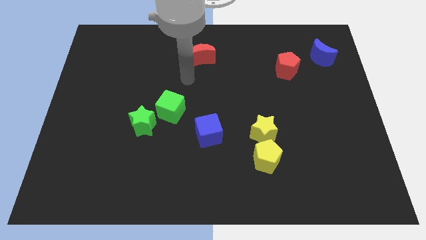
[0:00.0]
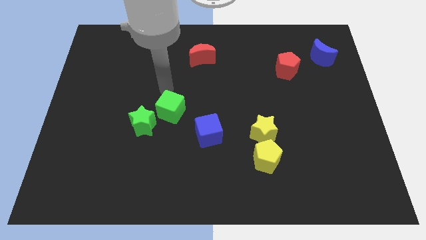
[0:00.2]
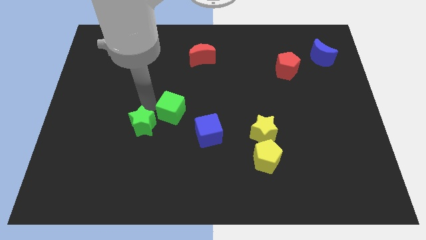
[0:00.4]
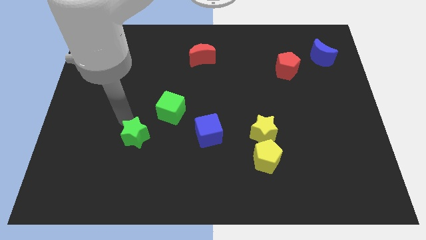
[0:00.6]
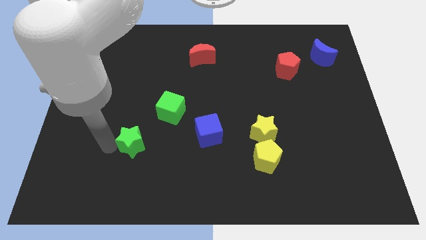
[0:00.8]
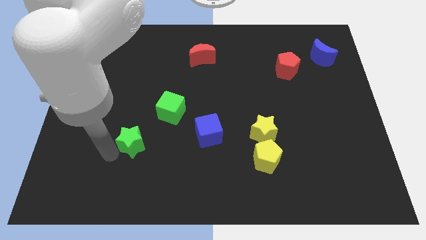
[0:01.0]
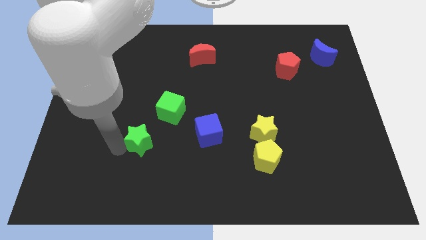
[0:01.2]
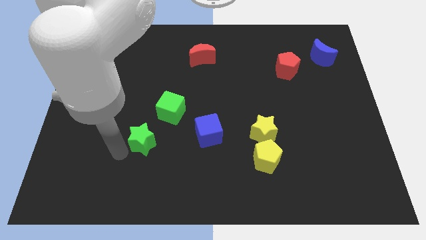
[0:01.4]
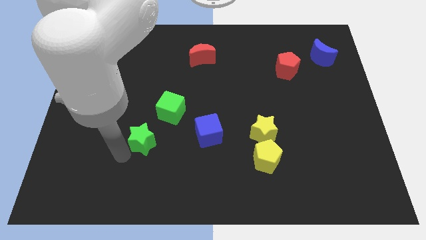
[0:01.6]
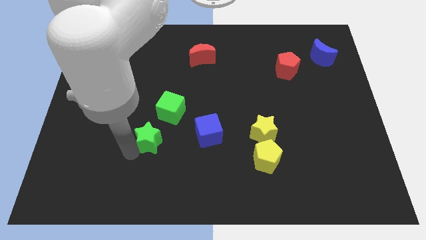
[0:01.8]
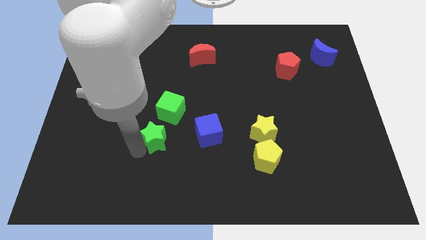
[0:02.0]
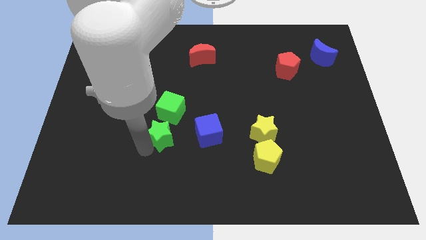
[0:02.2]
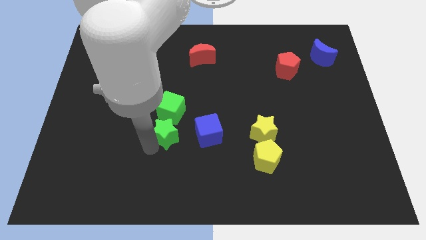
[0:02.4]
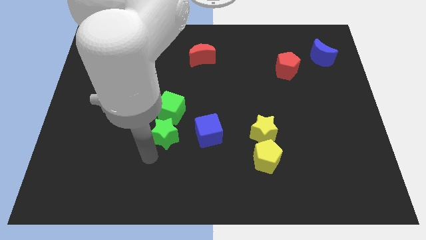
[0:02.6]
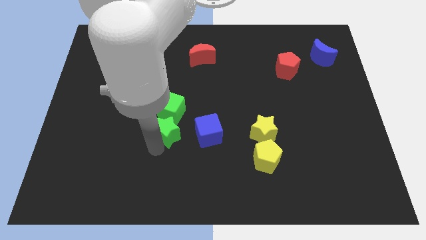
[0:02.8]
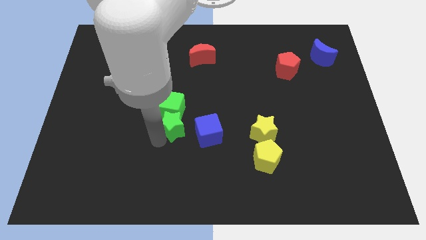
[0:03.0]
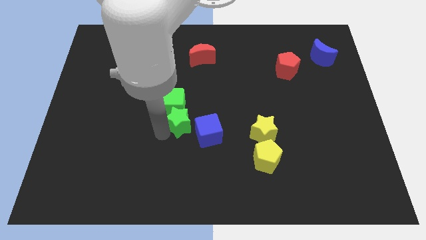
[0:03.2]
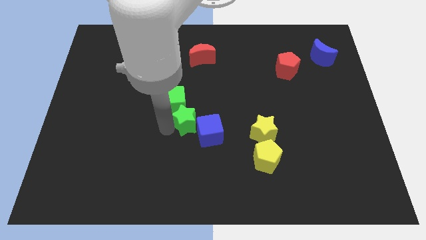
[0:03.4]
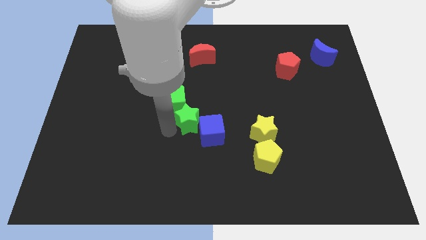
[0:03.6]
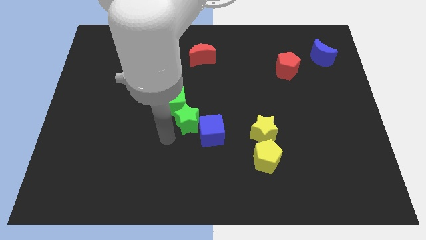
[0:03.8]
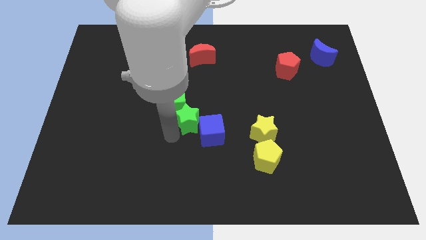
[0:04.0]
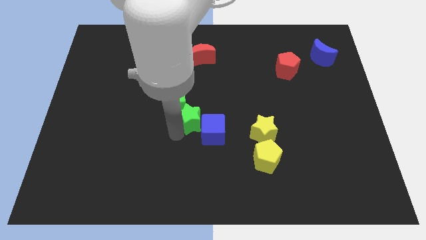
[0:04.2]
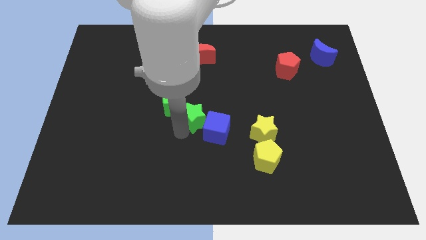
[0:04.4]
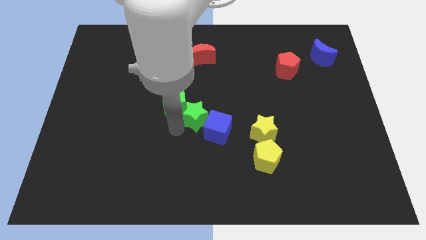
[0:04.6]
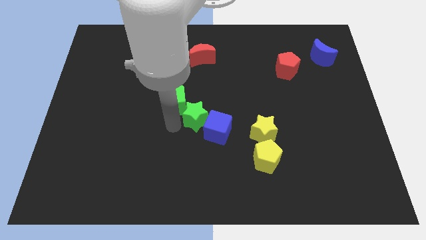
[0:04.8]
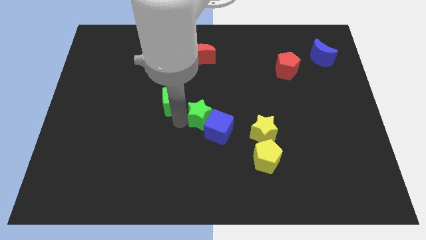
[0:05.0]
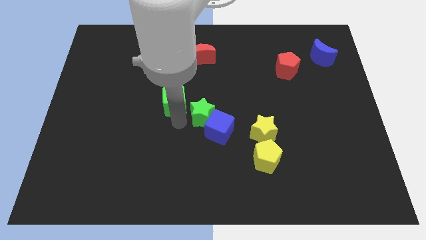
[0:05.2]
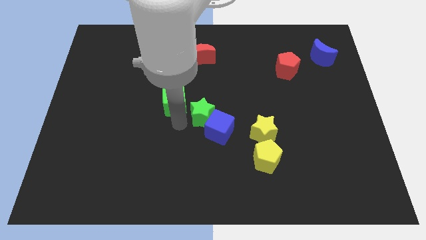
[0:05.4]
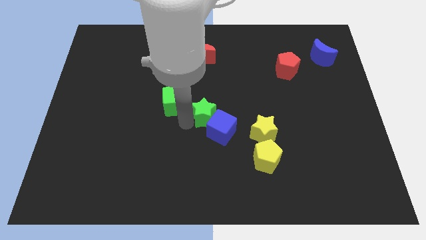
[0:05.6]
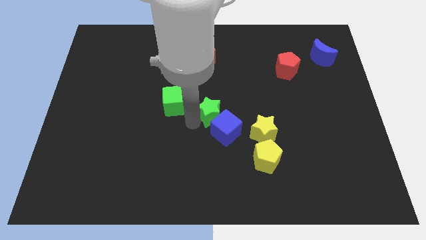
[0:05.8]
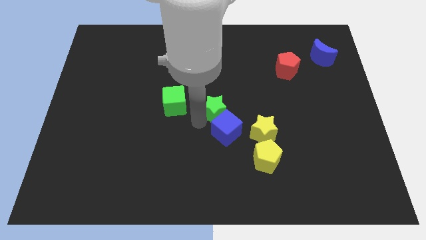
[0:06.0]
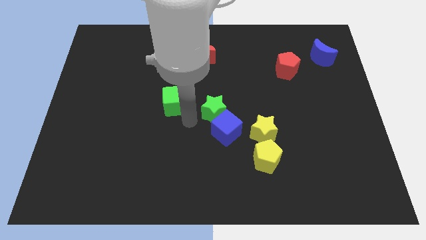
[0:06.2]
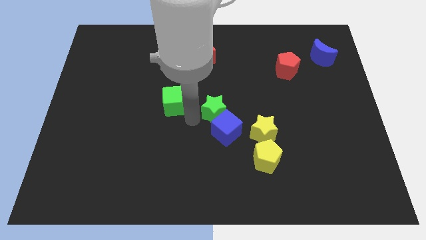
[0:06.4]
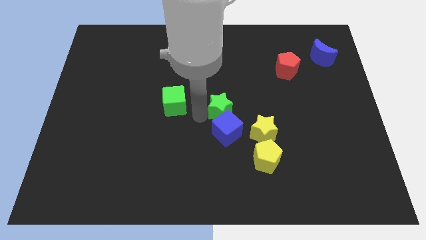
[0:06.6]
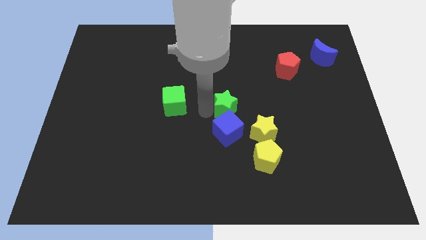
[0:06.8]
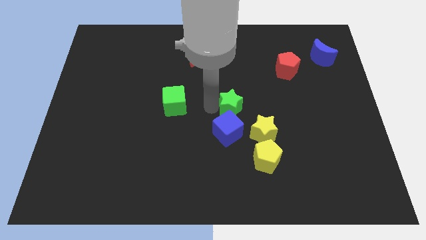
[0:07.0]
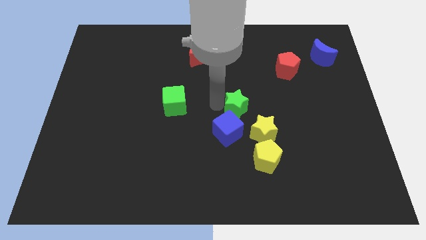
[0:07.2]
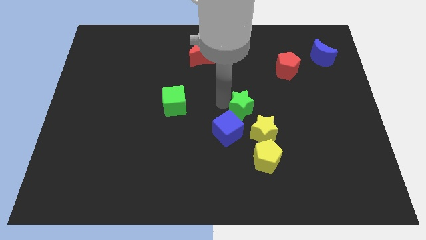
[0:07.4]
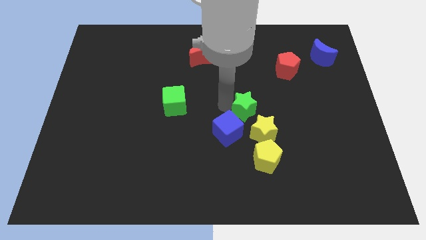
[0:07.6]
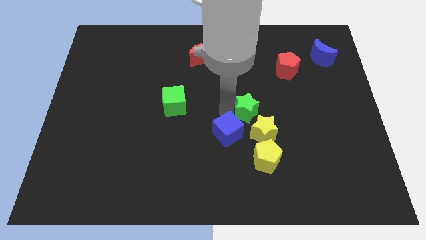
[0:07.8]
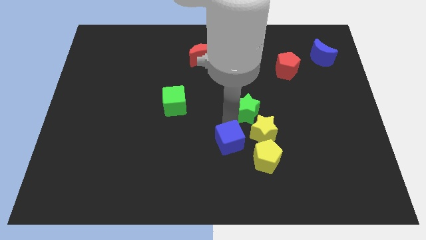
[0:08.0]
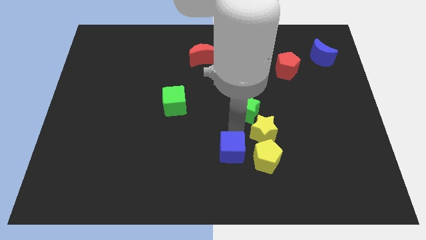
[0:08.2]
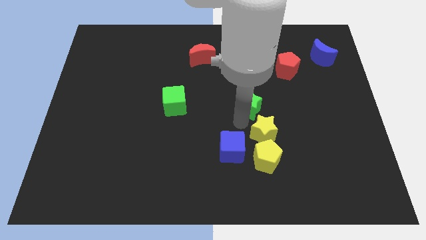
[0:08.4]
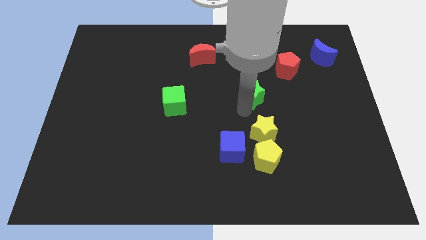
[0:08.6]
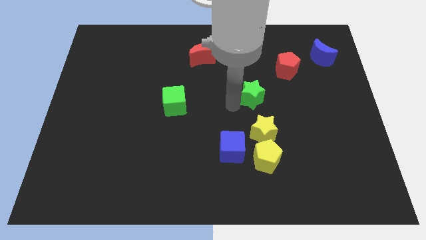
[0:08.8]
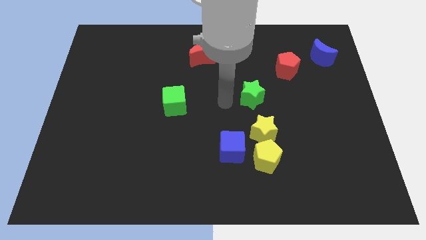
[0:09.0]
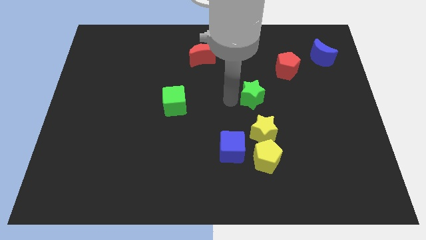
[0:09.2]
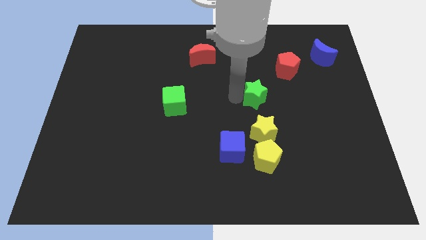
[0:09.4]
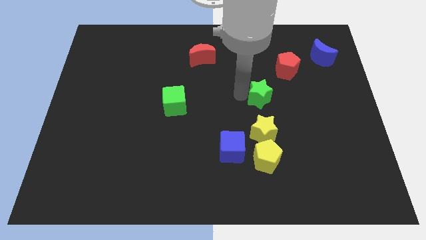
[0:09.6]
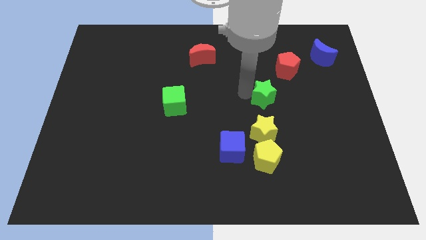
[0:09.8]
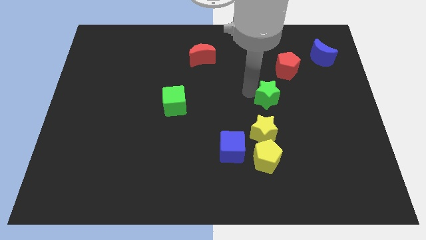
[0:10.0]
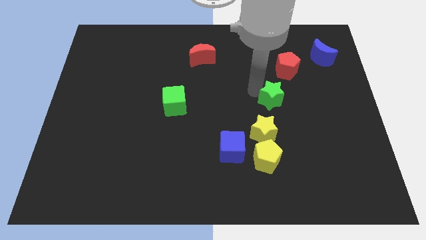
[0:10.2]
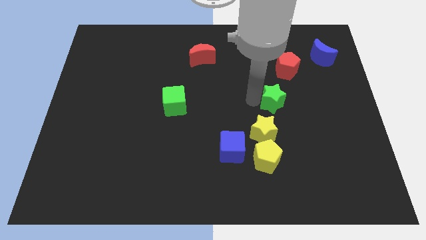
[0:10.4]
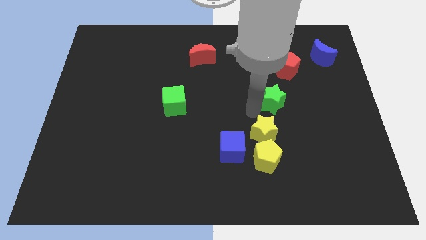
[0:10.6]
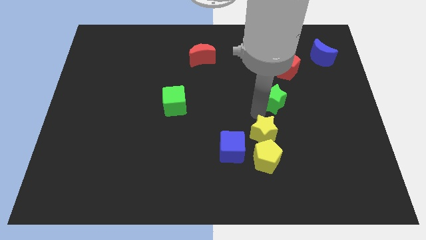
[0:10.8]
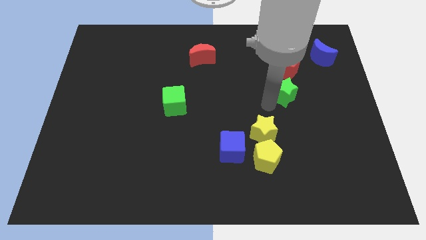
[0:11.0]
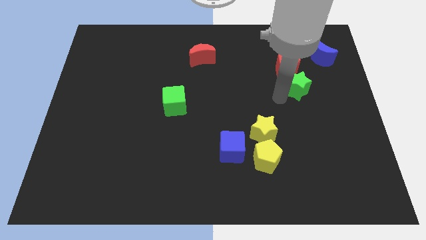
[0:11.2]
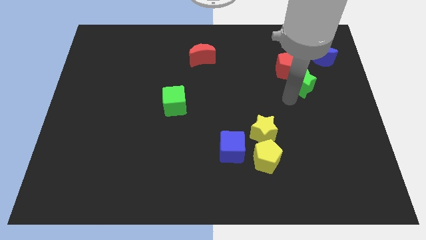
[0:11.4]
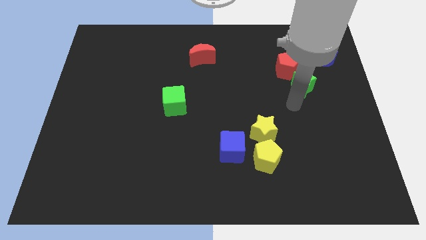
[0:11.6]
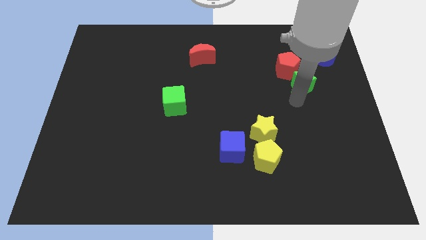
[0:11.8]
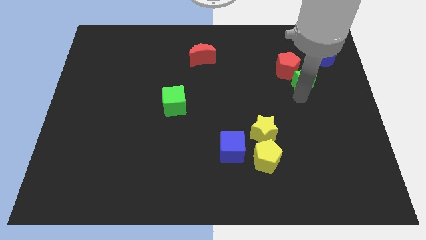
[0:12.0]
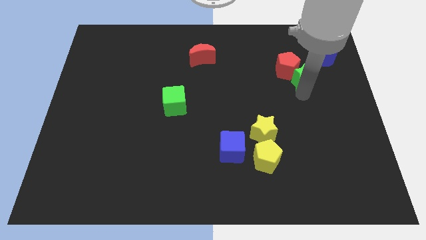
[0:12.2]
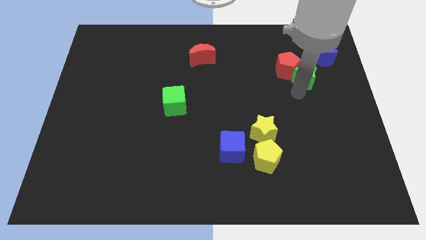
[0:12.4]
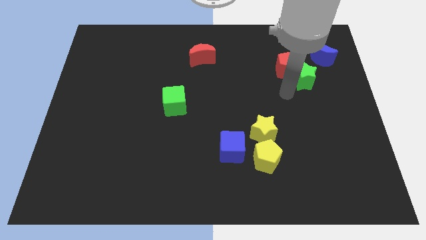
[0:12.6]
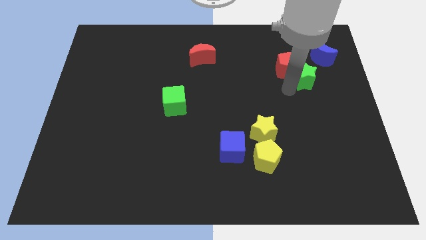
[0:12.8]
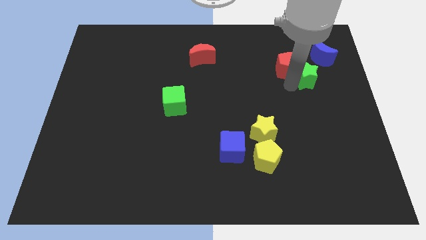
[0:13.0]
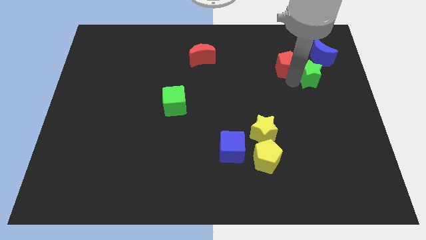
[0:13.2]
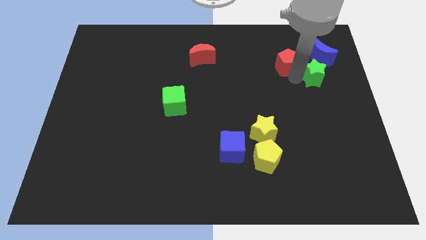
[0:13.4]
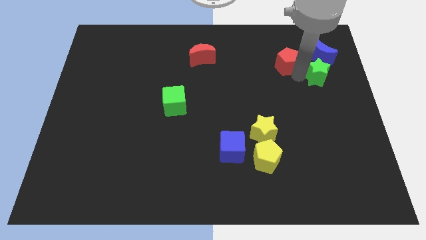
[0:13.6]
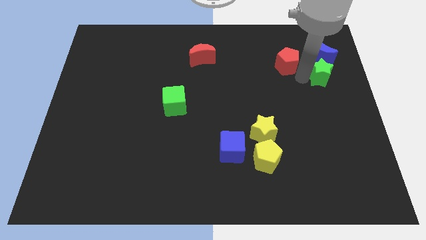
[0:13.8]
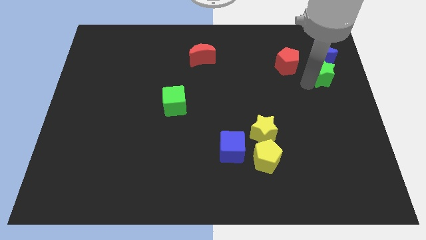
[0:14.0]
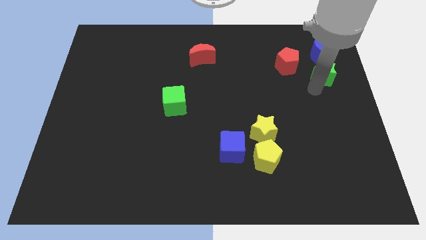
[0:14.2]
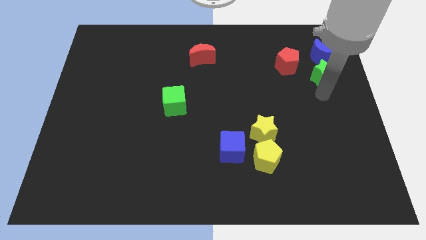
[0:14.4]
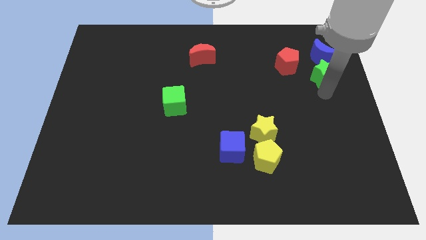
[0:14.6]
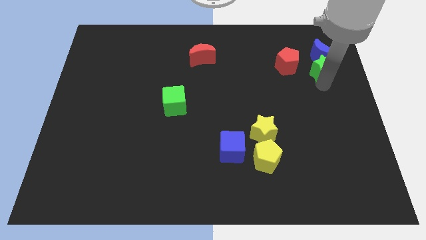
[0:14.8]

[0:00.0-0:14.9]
move the green star towards the blue moon
